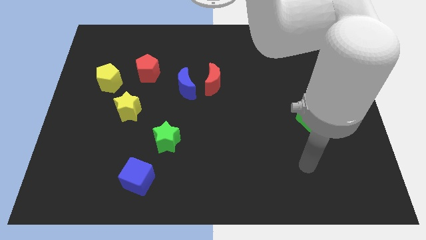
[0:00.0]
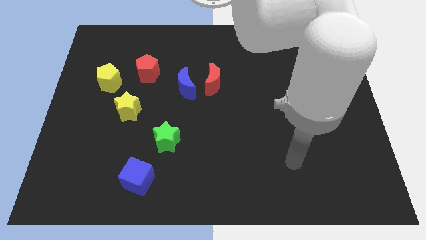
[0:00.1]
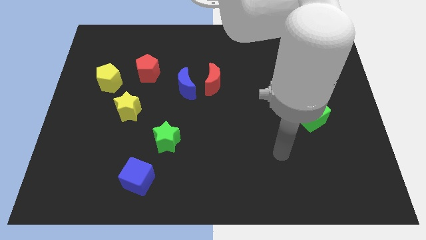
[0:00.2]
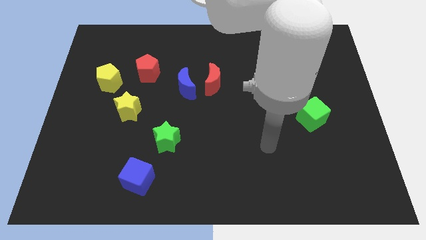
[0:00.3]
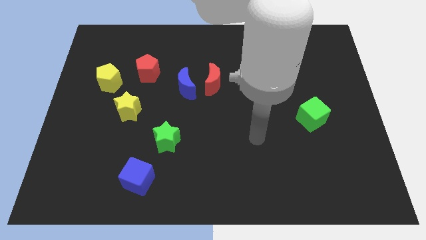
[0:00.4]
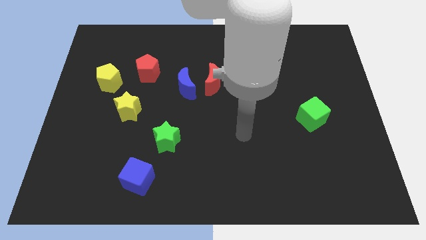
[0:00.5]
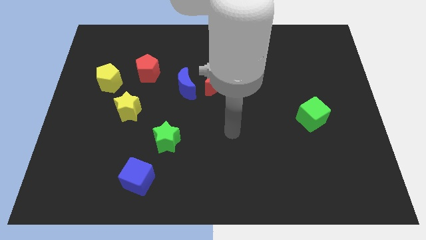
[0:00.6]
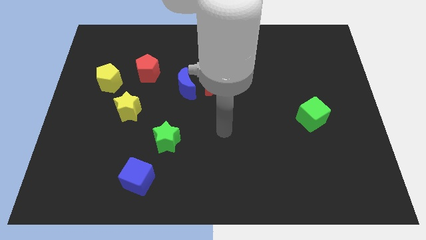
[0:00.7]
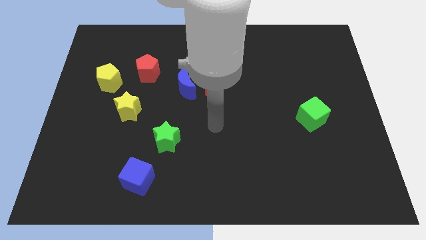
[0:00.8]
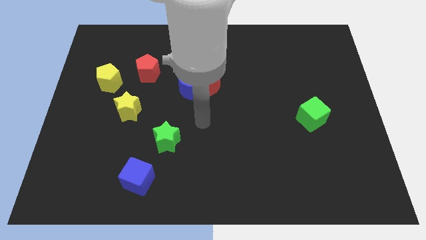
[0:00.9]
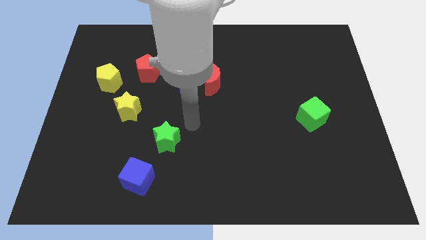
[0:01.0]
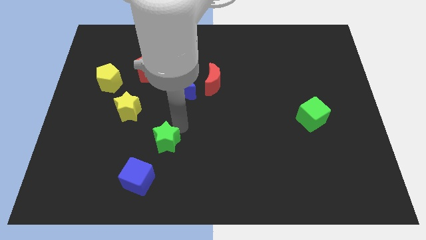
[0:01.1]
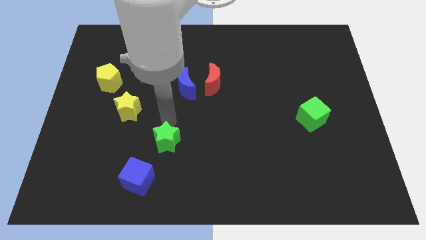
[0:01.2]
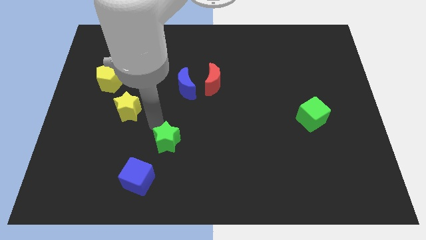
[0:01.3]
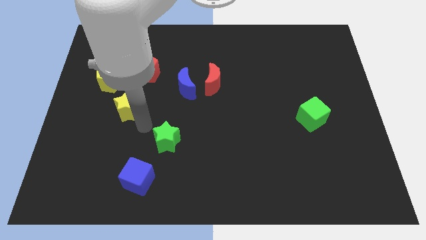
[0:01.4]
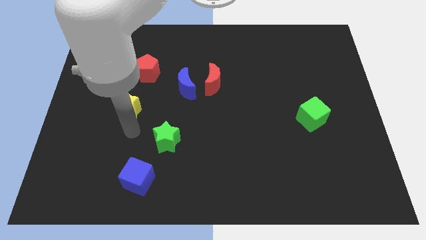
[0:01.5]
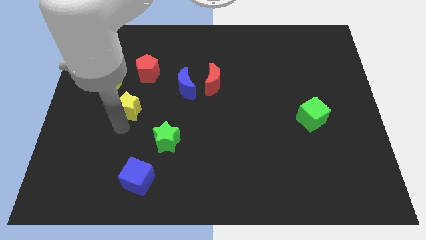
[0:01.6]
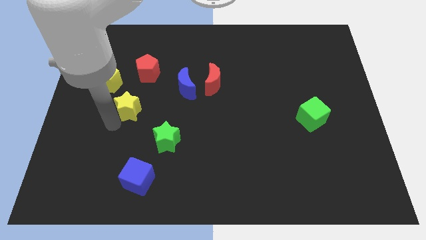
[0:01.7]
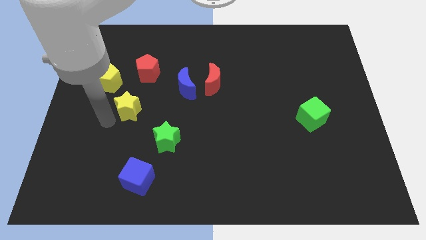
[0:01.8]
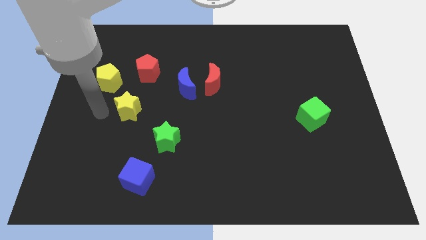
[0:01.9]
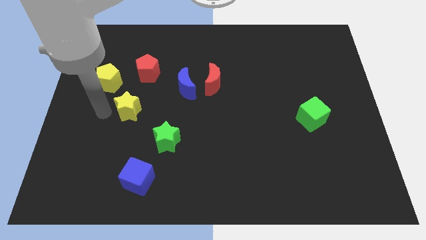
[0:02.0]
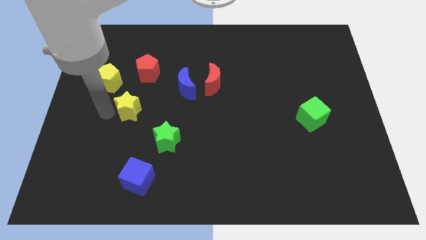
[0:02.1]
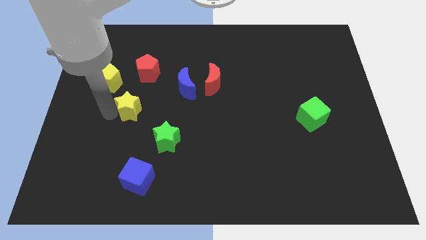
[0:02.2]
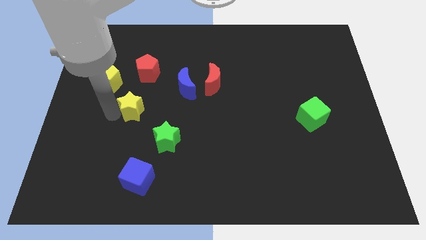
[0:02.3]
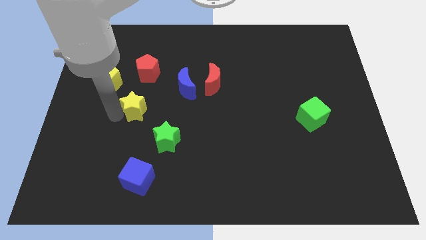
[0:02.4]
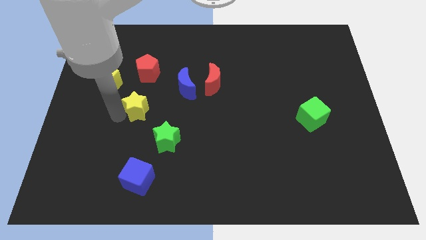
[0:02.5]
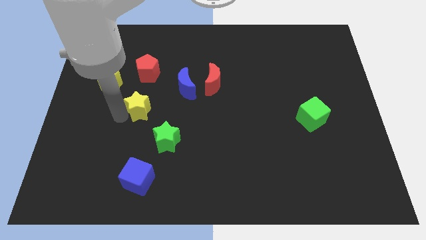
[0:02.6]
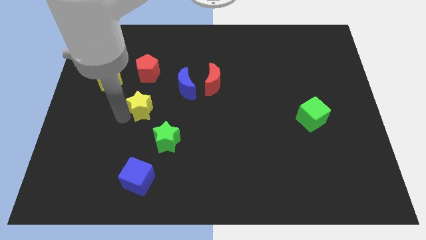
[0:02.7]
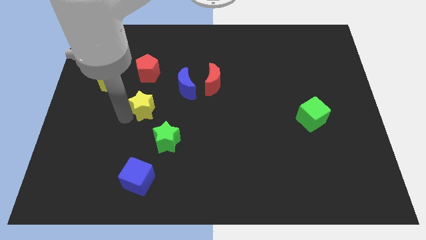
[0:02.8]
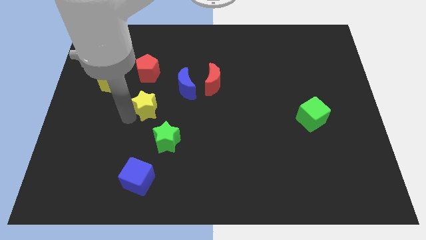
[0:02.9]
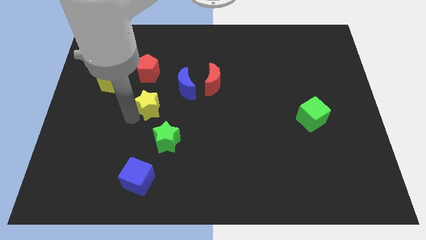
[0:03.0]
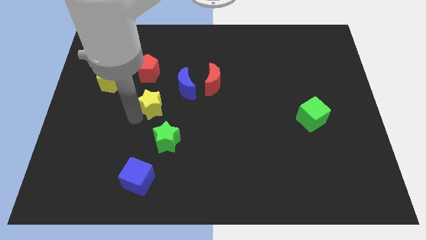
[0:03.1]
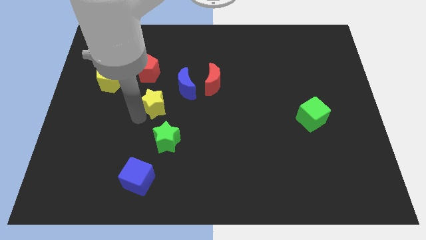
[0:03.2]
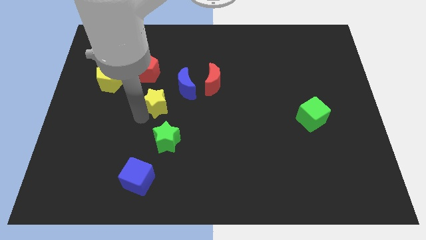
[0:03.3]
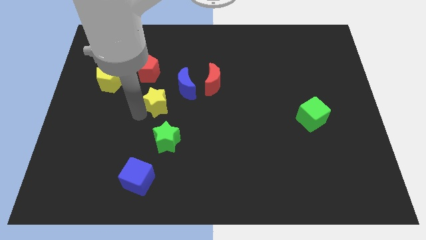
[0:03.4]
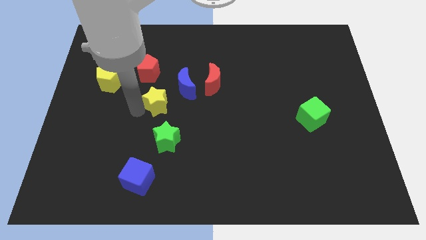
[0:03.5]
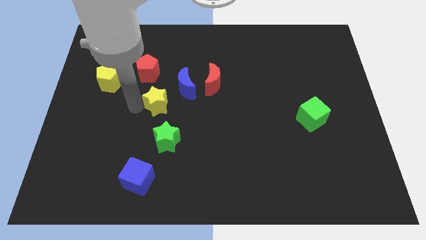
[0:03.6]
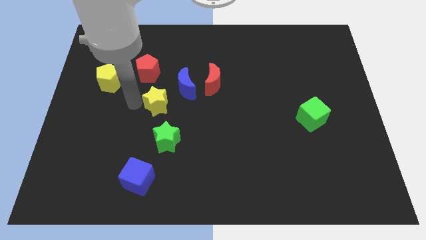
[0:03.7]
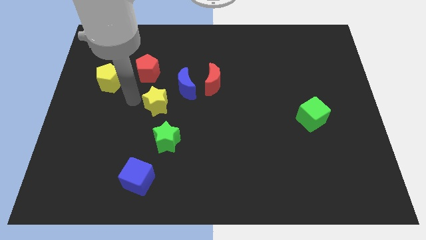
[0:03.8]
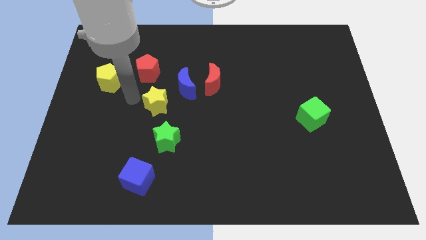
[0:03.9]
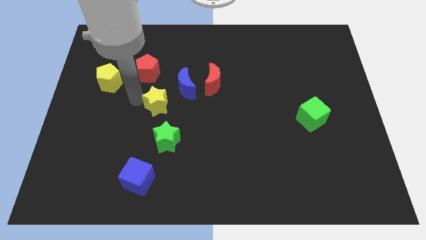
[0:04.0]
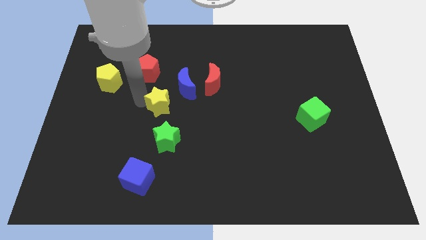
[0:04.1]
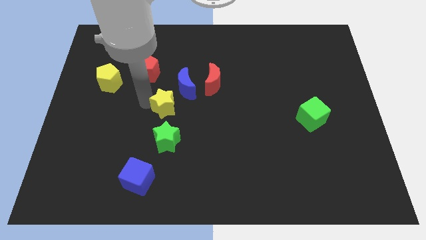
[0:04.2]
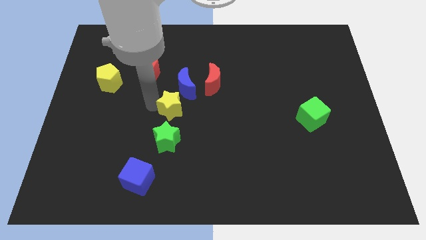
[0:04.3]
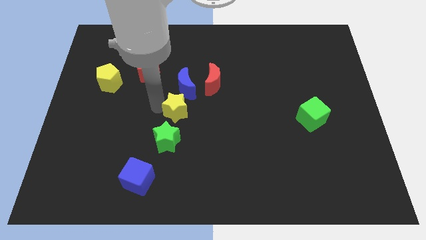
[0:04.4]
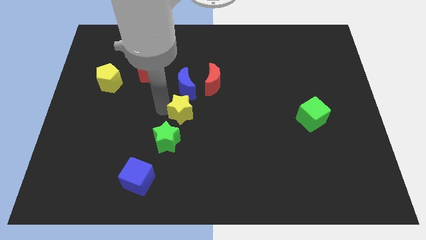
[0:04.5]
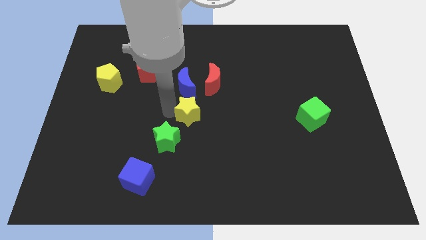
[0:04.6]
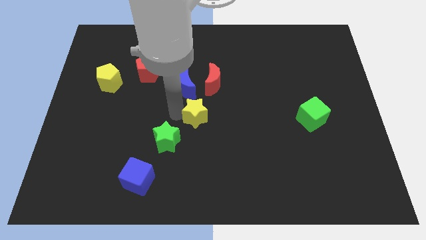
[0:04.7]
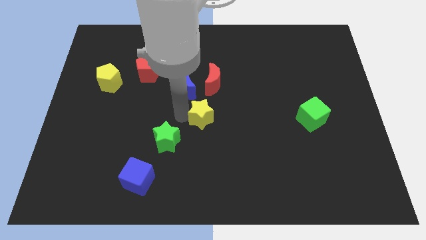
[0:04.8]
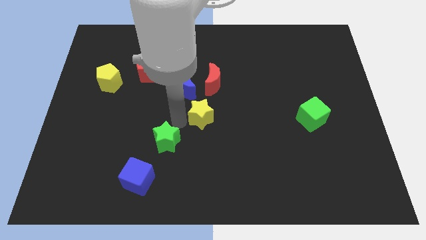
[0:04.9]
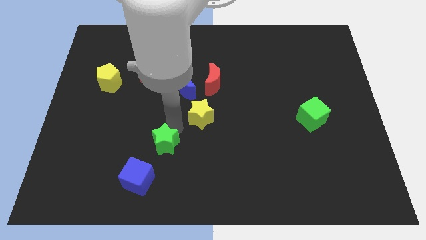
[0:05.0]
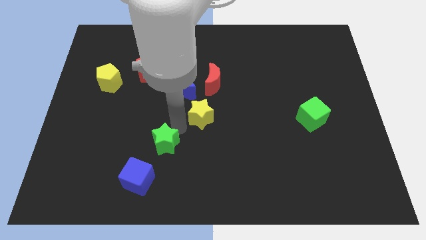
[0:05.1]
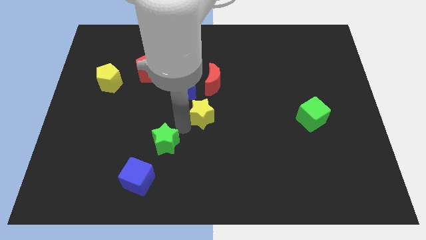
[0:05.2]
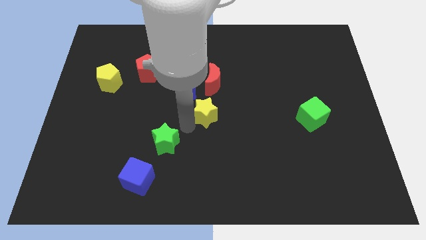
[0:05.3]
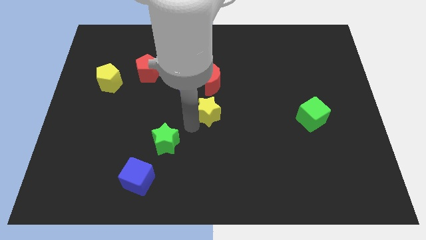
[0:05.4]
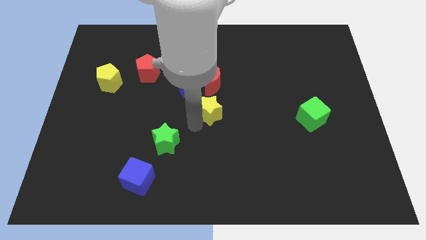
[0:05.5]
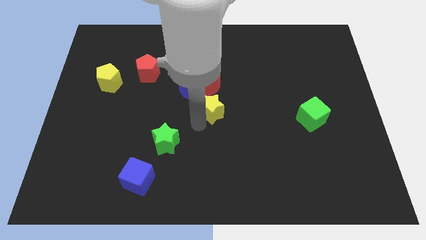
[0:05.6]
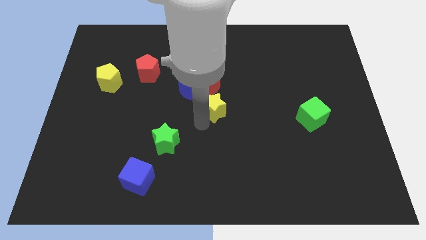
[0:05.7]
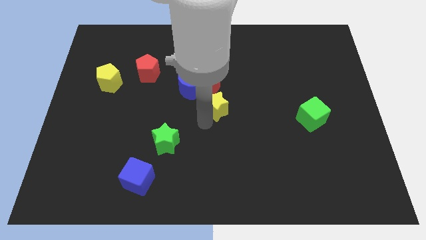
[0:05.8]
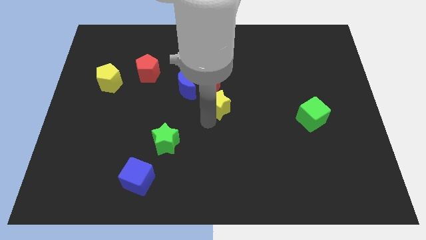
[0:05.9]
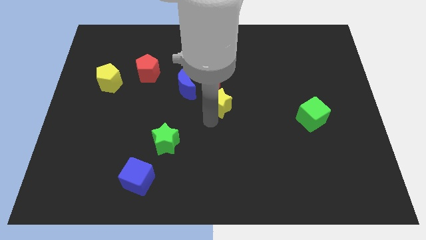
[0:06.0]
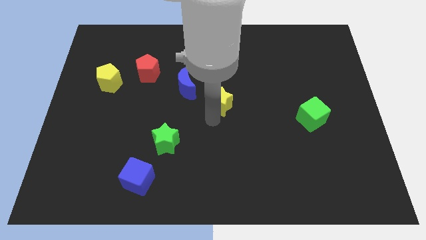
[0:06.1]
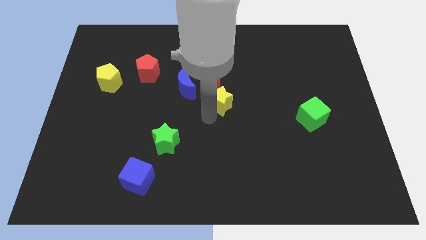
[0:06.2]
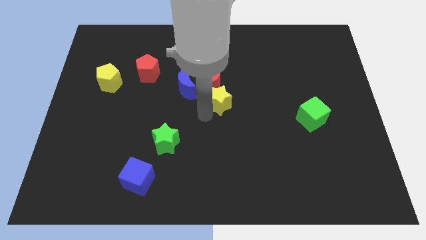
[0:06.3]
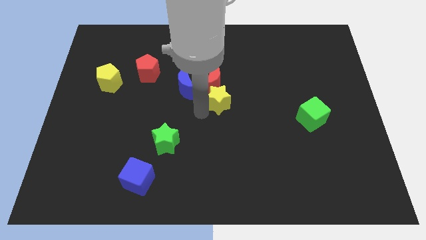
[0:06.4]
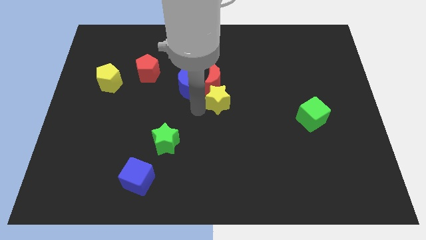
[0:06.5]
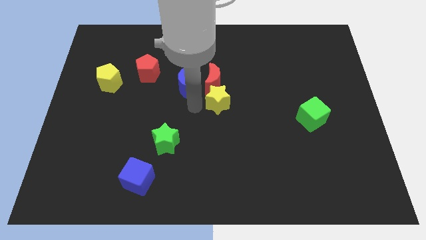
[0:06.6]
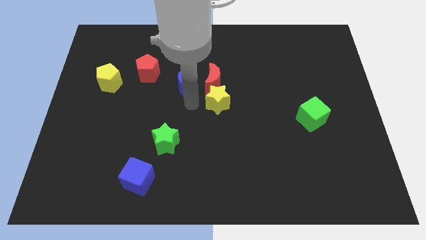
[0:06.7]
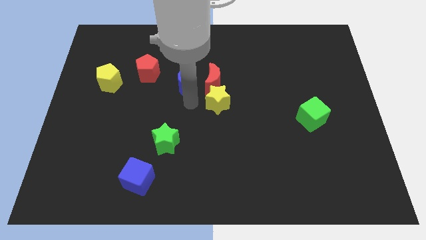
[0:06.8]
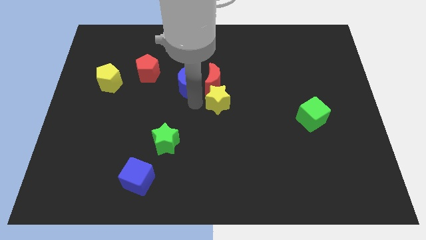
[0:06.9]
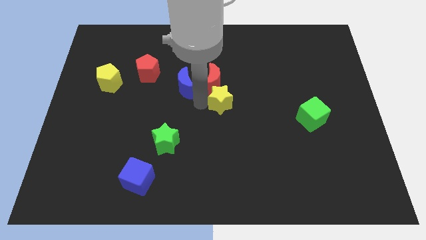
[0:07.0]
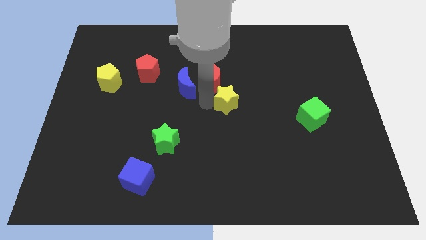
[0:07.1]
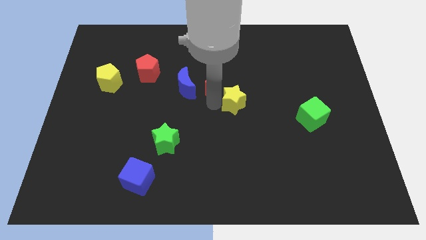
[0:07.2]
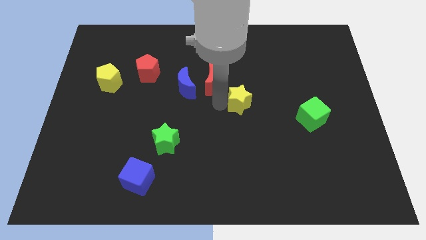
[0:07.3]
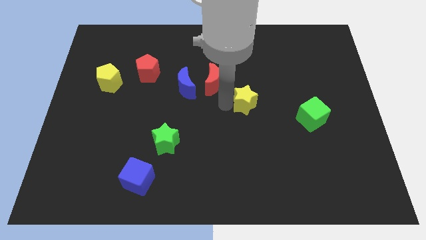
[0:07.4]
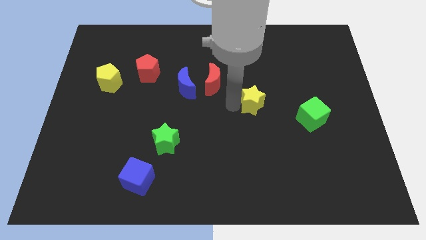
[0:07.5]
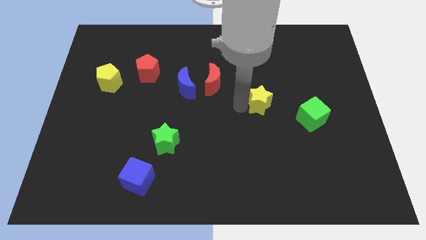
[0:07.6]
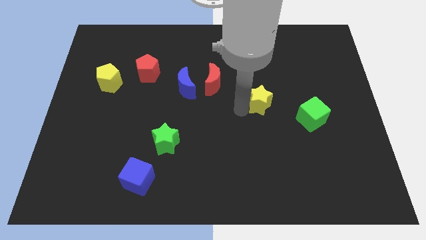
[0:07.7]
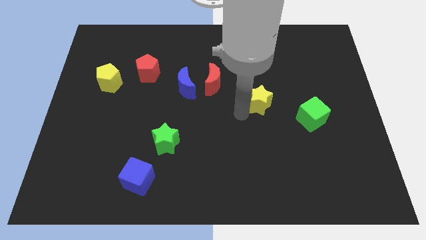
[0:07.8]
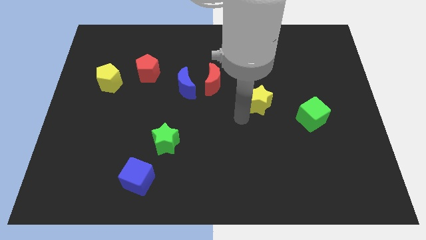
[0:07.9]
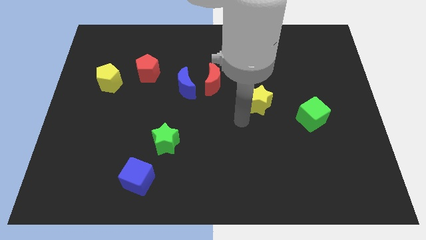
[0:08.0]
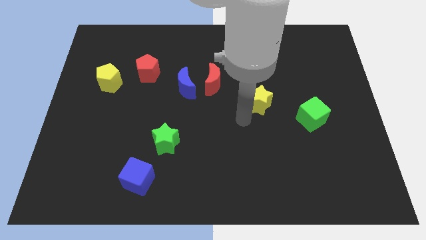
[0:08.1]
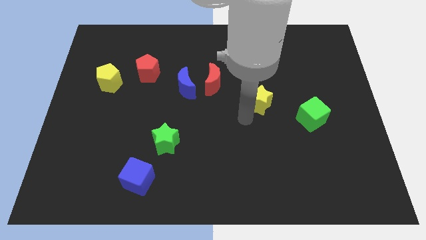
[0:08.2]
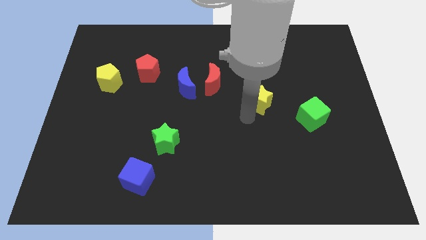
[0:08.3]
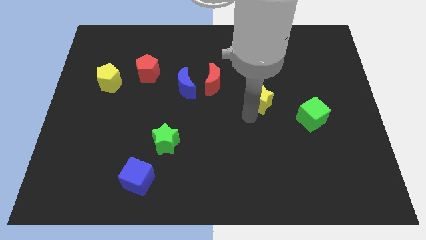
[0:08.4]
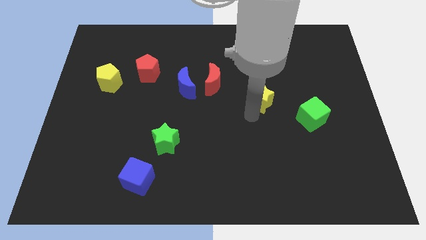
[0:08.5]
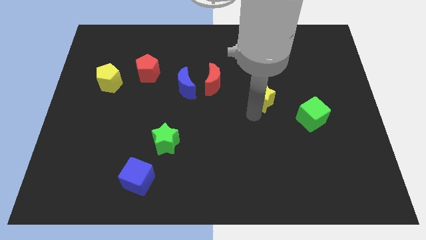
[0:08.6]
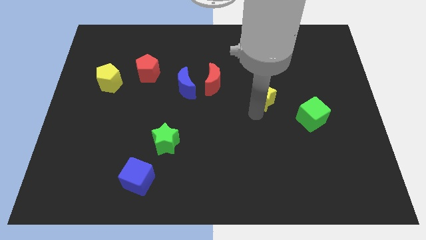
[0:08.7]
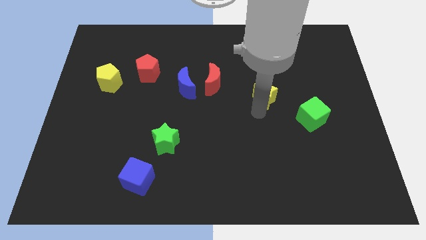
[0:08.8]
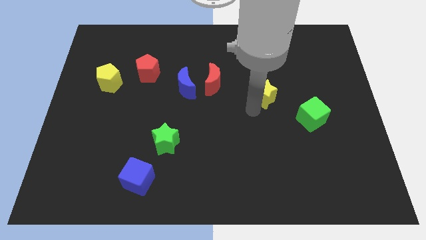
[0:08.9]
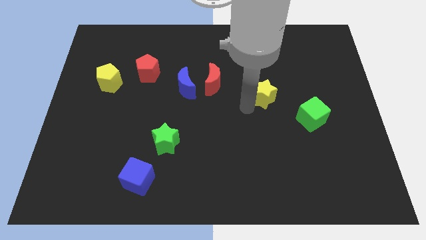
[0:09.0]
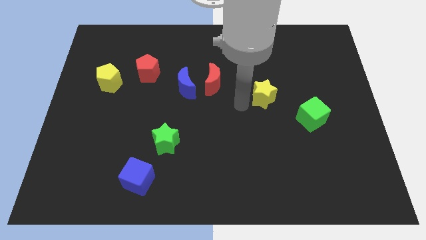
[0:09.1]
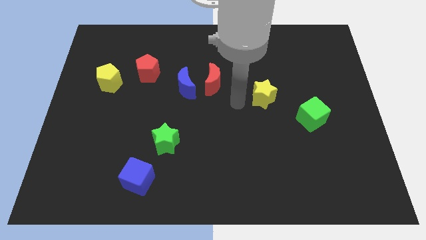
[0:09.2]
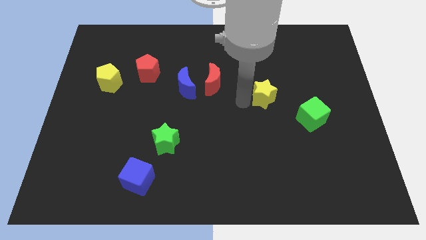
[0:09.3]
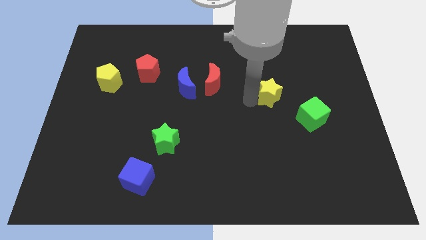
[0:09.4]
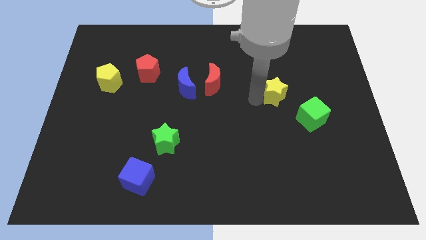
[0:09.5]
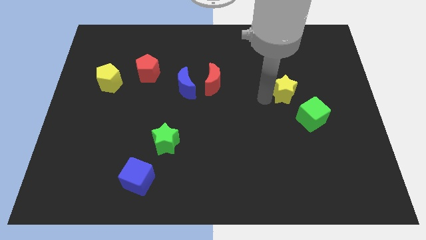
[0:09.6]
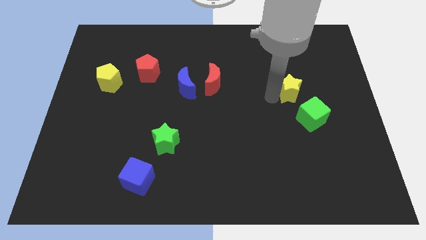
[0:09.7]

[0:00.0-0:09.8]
move the yellow star to the top of the green cube
